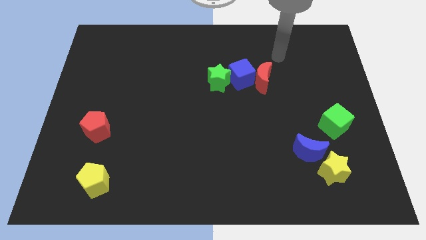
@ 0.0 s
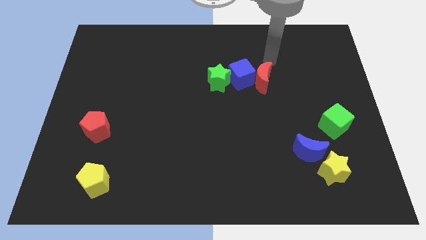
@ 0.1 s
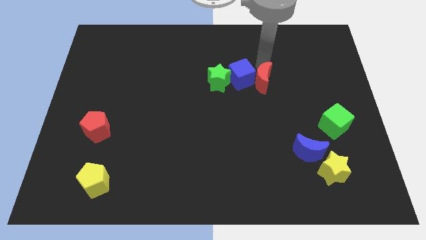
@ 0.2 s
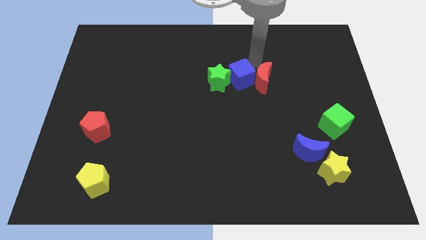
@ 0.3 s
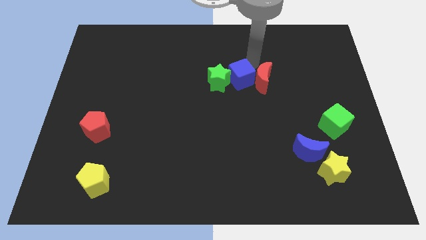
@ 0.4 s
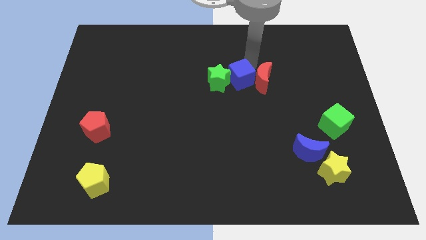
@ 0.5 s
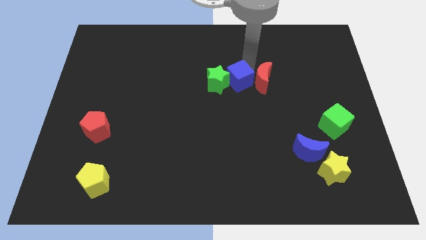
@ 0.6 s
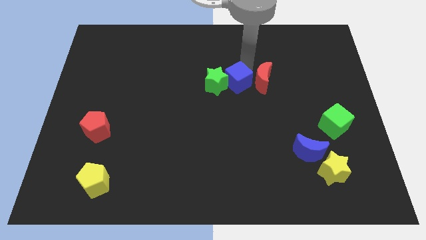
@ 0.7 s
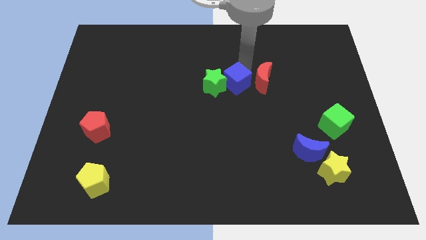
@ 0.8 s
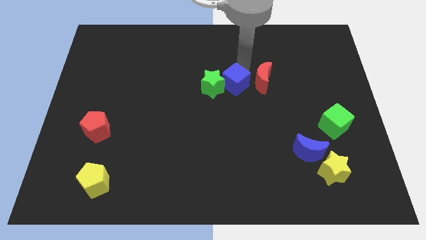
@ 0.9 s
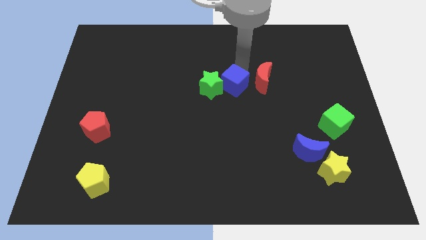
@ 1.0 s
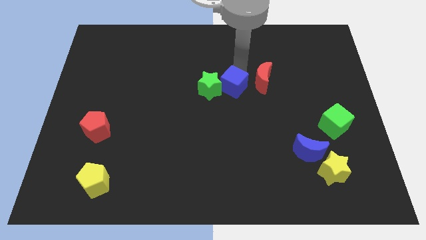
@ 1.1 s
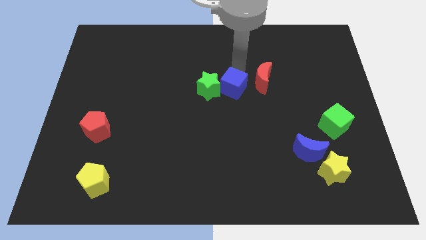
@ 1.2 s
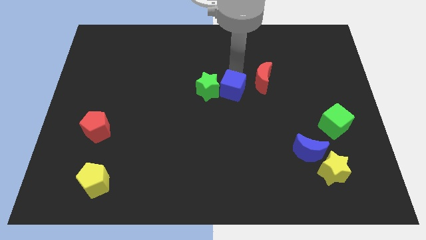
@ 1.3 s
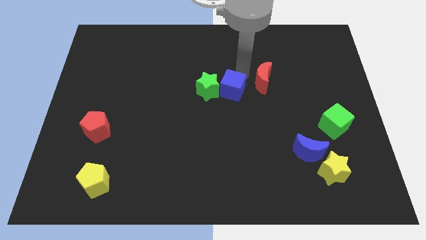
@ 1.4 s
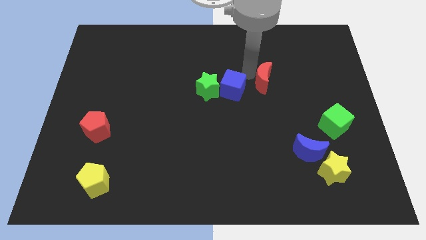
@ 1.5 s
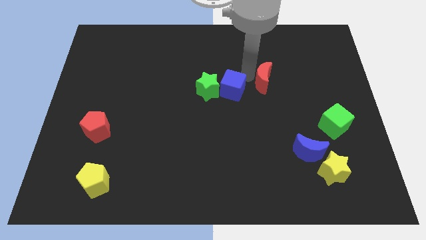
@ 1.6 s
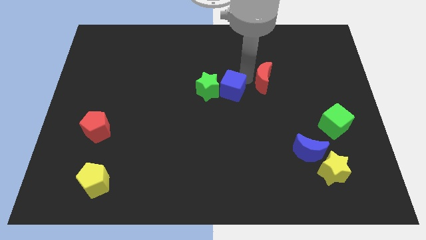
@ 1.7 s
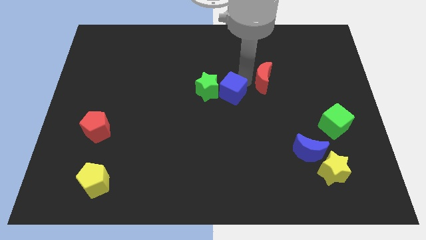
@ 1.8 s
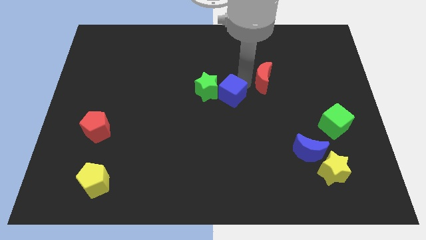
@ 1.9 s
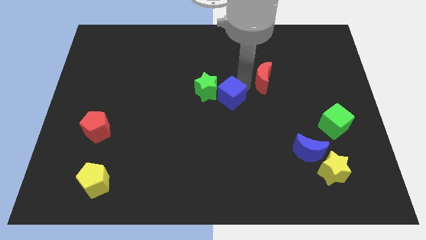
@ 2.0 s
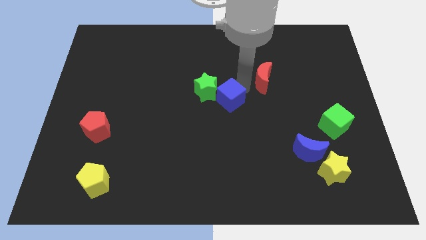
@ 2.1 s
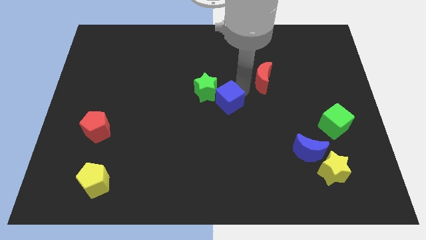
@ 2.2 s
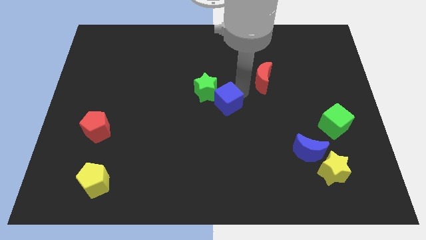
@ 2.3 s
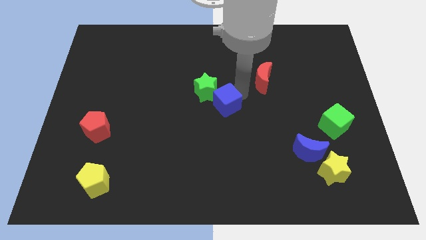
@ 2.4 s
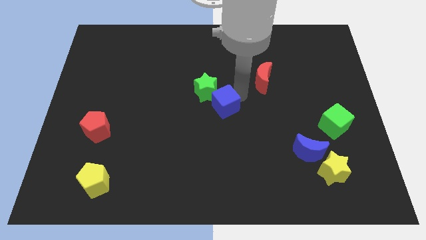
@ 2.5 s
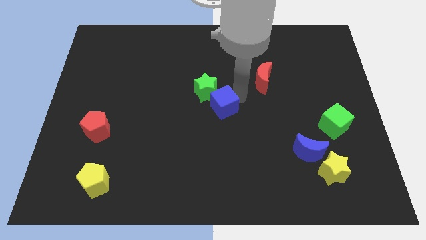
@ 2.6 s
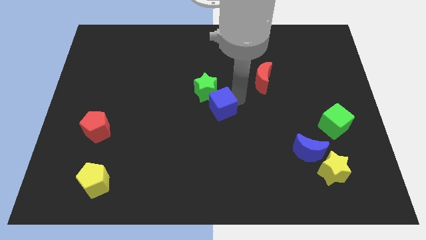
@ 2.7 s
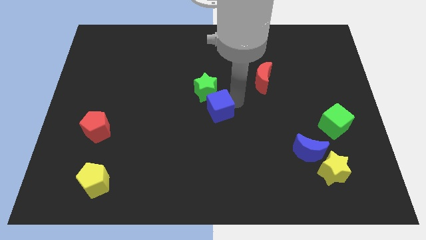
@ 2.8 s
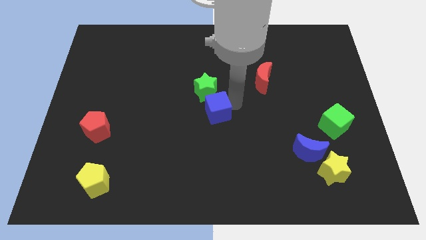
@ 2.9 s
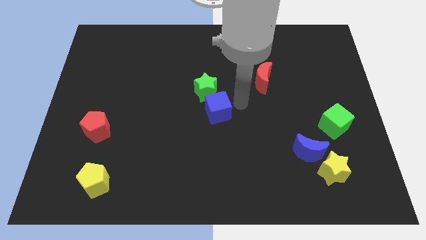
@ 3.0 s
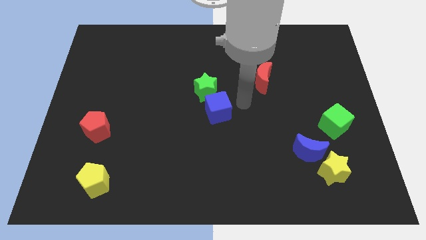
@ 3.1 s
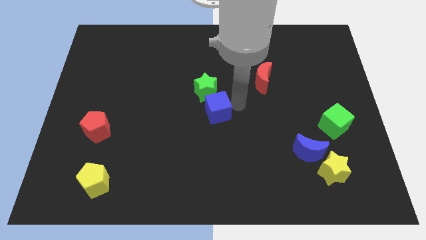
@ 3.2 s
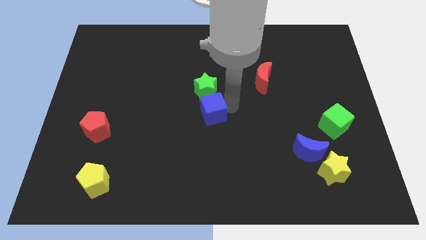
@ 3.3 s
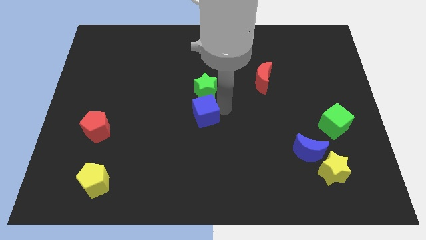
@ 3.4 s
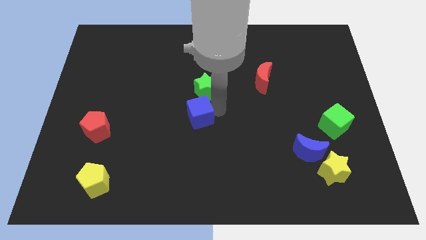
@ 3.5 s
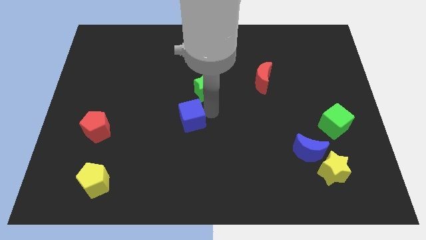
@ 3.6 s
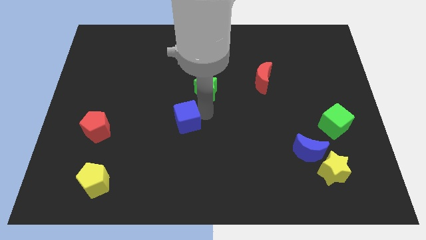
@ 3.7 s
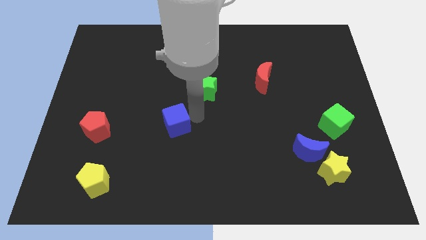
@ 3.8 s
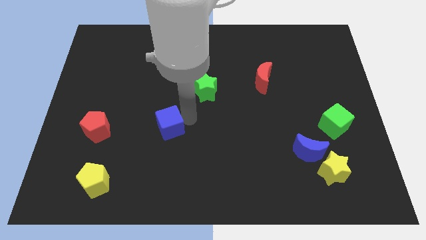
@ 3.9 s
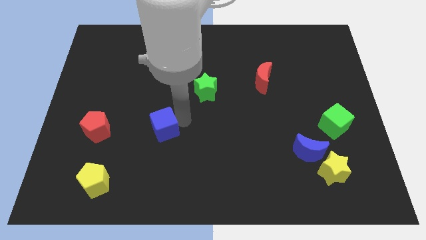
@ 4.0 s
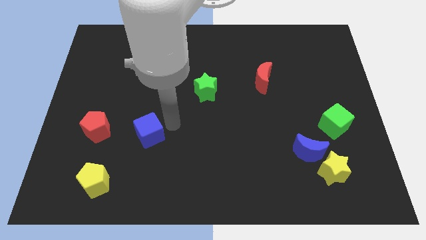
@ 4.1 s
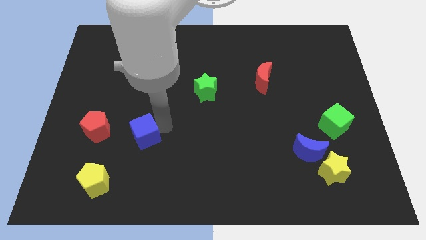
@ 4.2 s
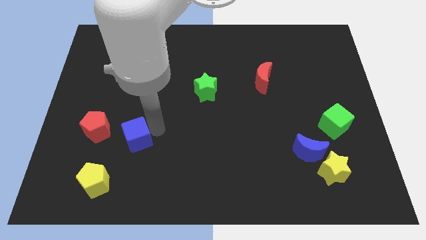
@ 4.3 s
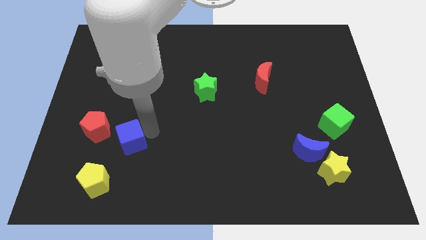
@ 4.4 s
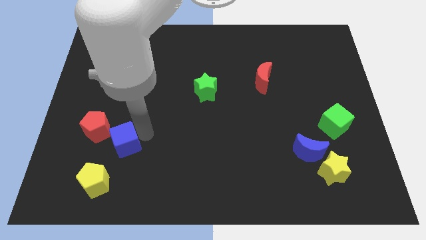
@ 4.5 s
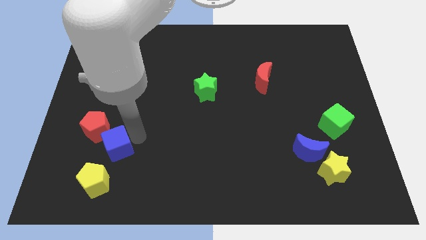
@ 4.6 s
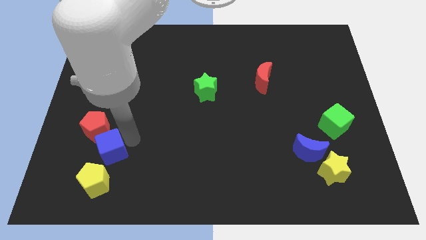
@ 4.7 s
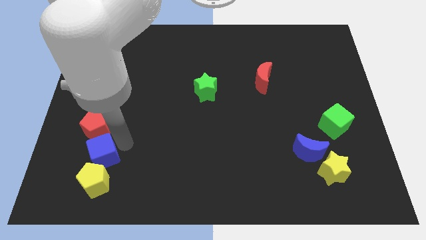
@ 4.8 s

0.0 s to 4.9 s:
push the blue cube to the top left of the yellow pentagon

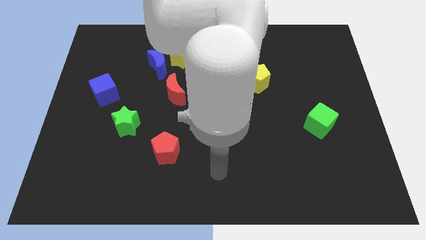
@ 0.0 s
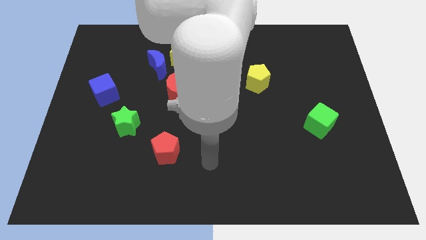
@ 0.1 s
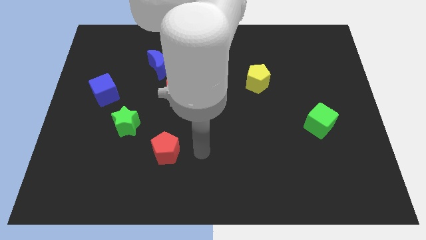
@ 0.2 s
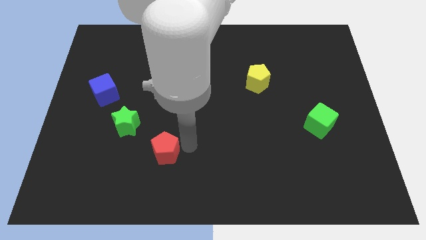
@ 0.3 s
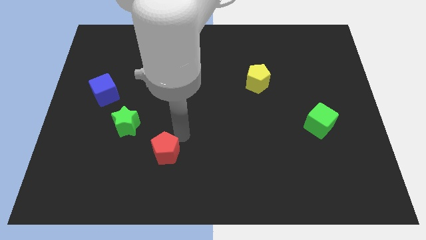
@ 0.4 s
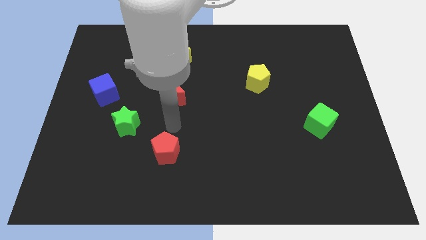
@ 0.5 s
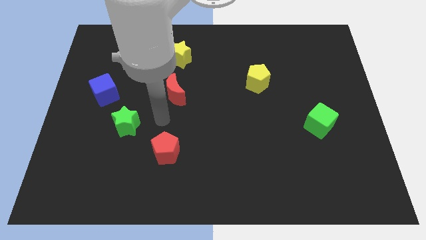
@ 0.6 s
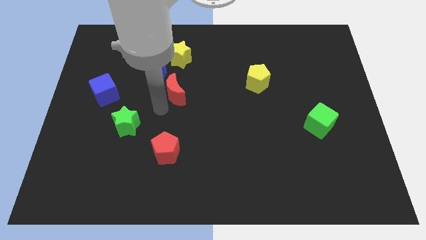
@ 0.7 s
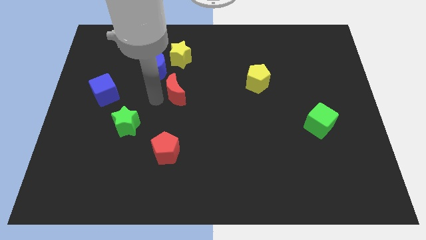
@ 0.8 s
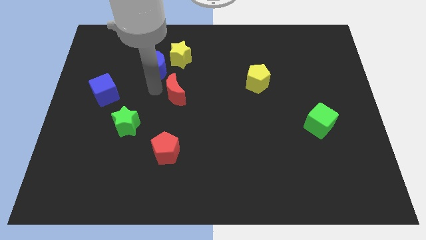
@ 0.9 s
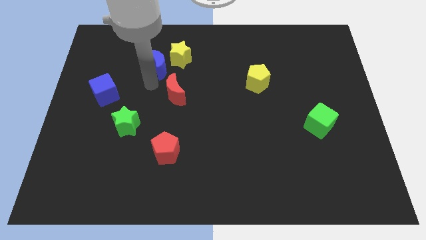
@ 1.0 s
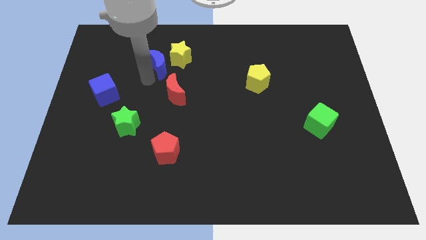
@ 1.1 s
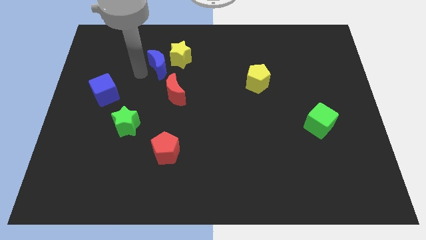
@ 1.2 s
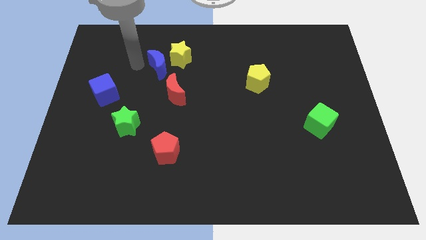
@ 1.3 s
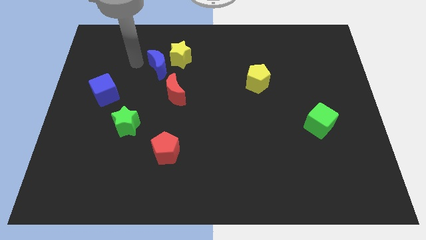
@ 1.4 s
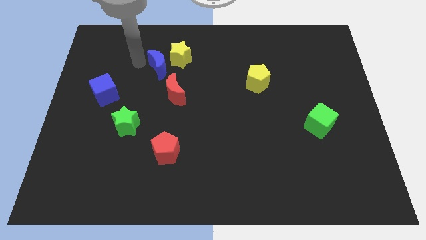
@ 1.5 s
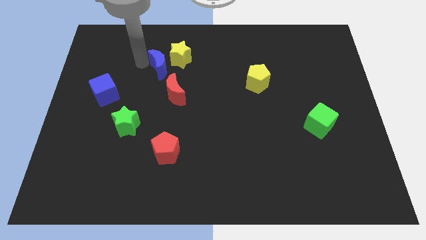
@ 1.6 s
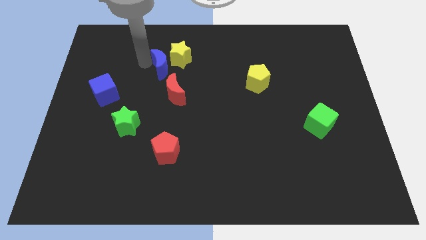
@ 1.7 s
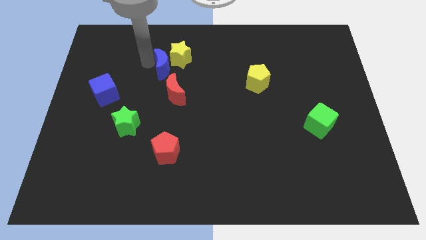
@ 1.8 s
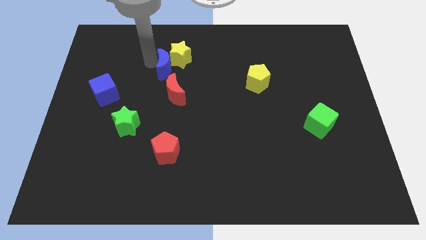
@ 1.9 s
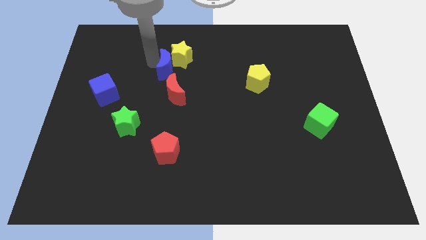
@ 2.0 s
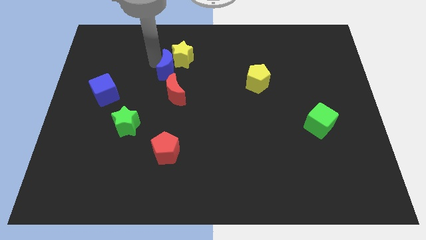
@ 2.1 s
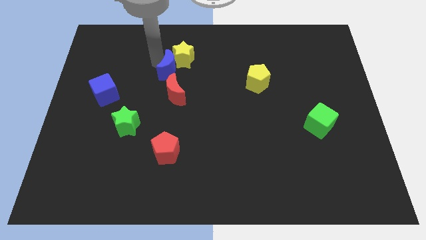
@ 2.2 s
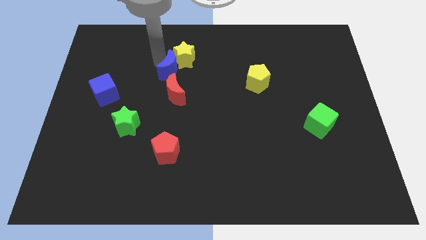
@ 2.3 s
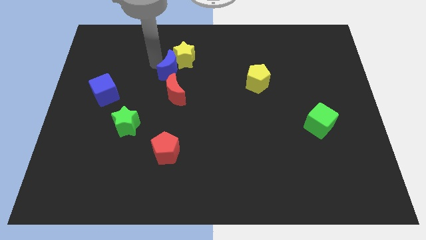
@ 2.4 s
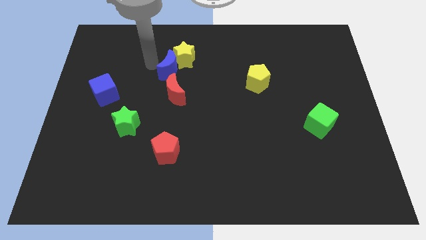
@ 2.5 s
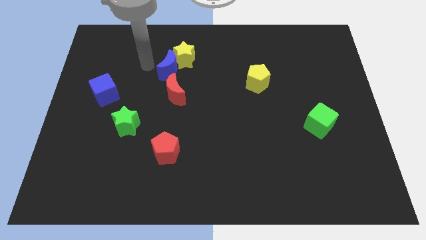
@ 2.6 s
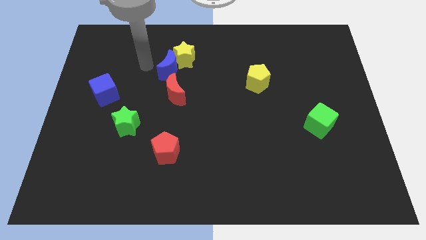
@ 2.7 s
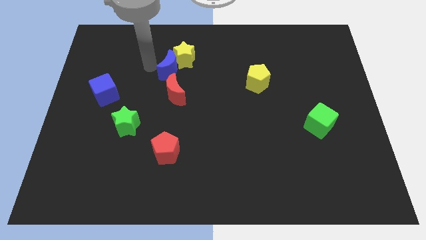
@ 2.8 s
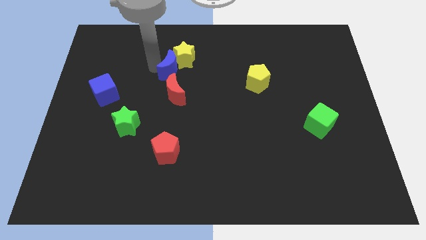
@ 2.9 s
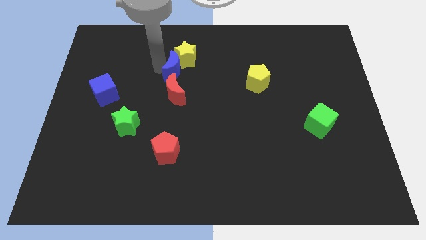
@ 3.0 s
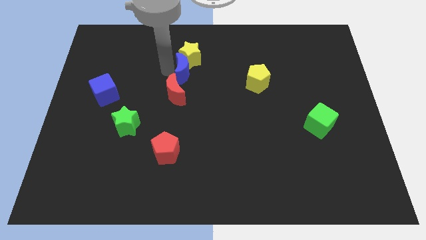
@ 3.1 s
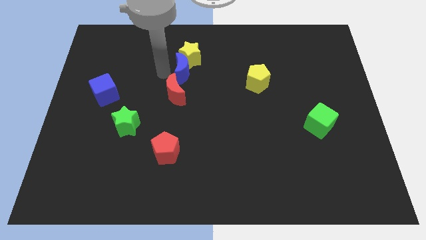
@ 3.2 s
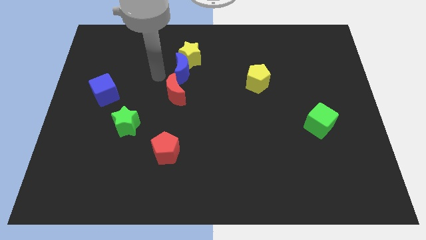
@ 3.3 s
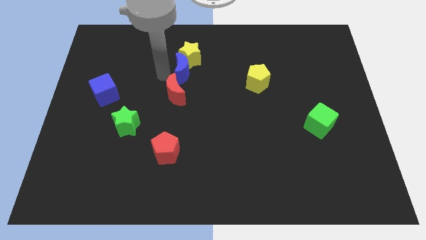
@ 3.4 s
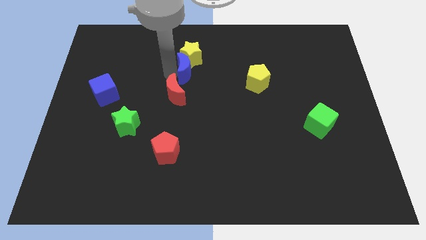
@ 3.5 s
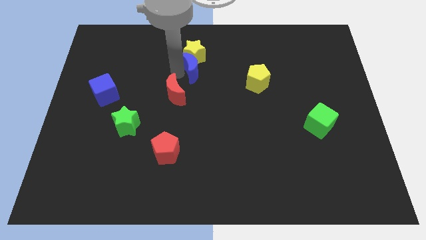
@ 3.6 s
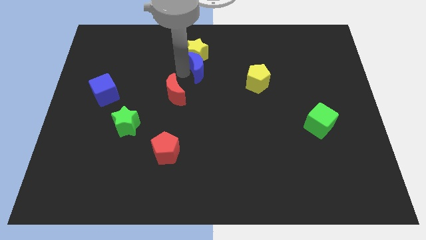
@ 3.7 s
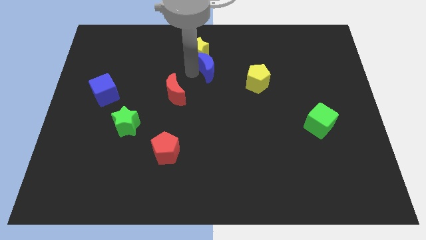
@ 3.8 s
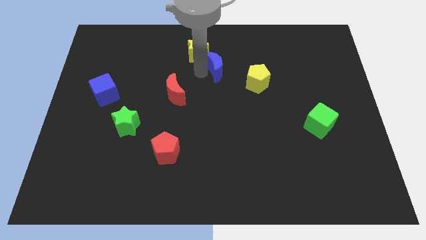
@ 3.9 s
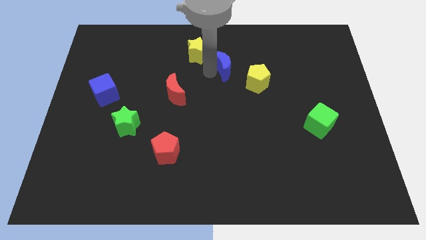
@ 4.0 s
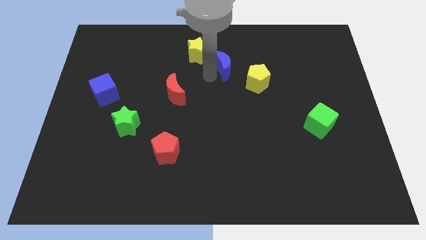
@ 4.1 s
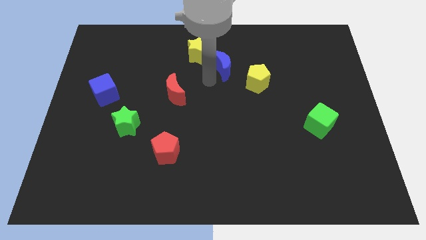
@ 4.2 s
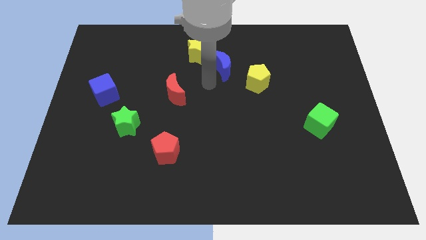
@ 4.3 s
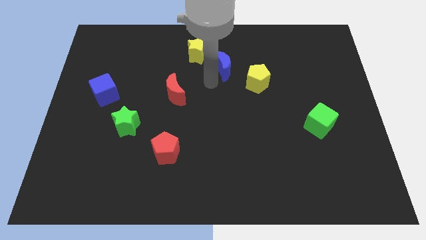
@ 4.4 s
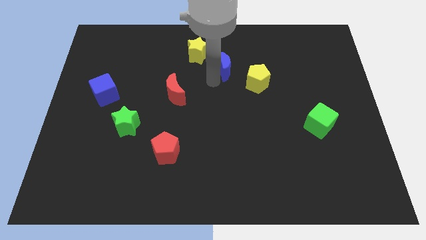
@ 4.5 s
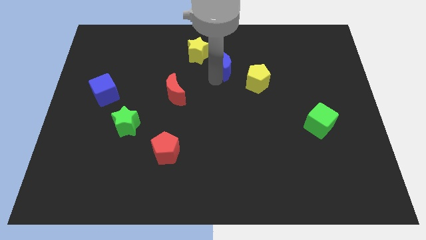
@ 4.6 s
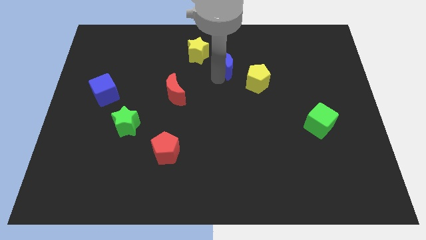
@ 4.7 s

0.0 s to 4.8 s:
push the blue moon to the right side of the yellow star
